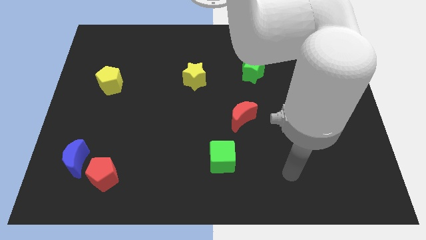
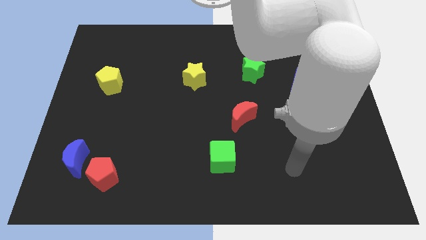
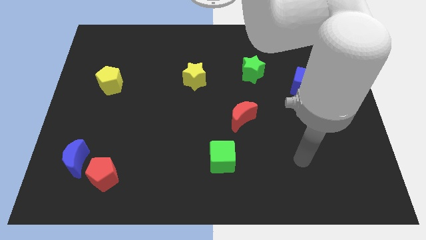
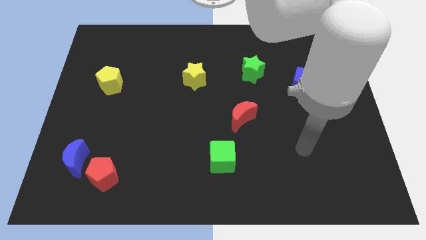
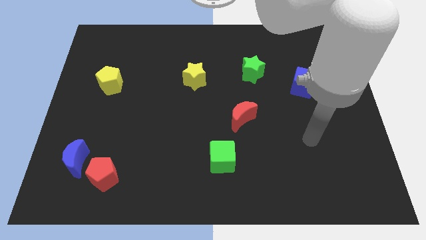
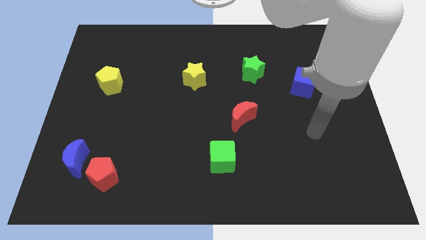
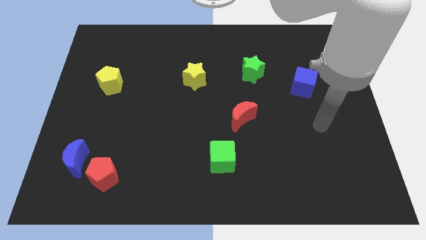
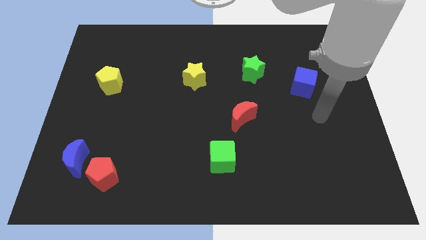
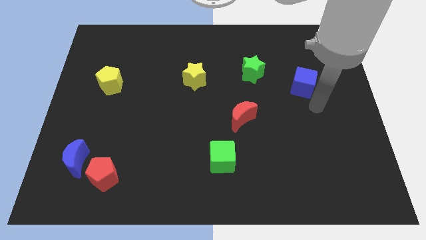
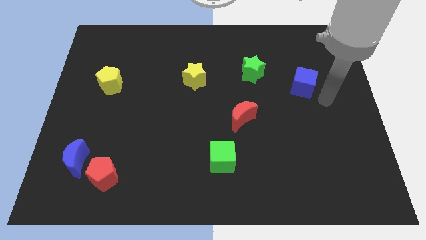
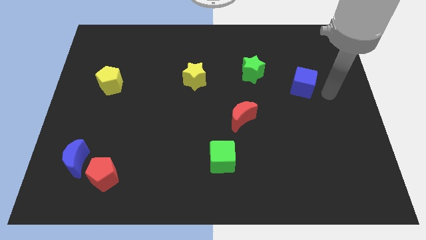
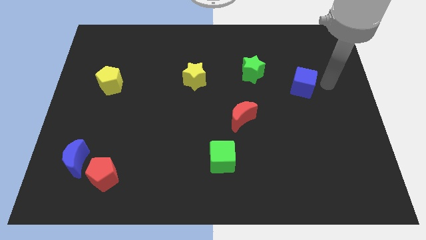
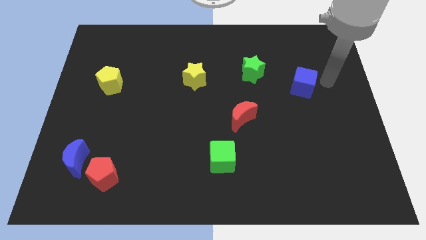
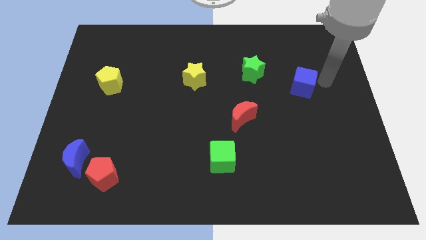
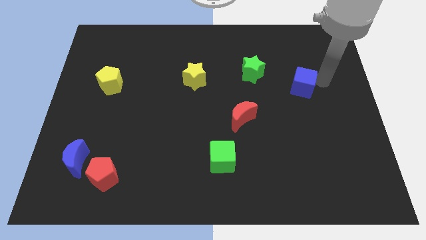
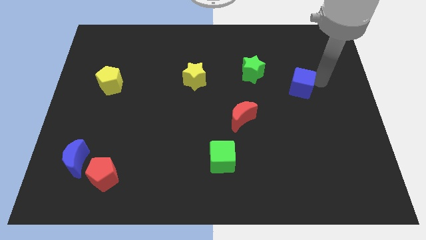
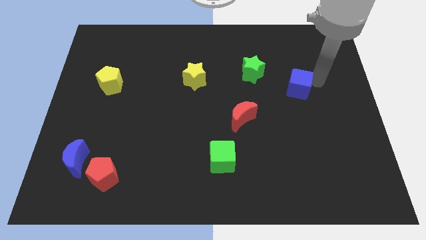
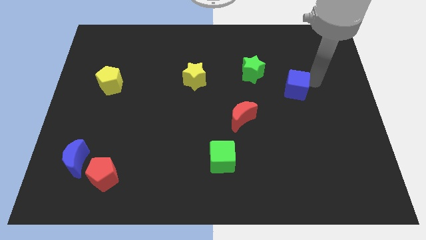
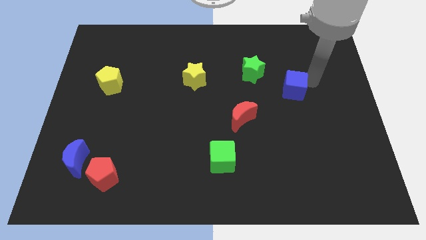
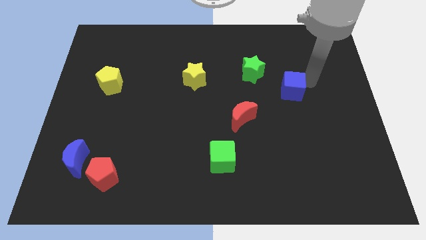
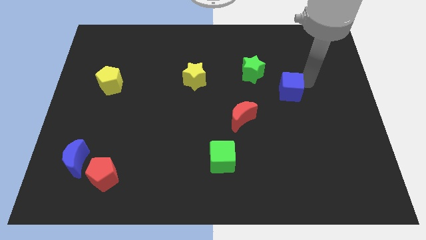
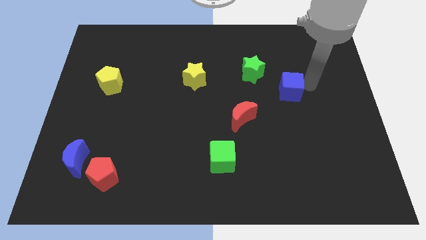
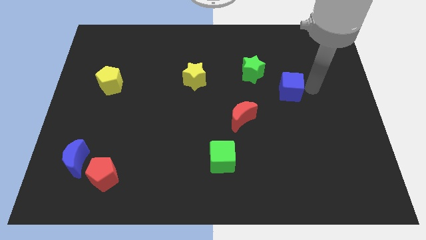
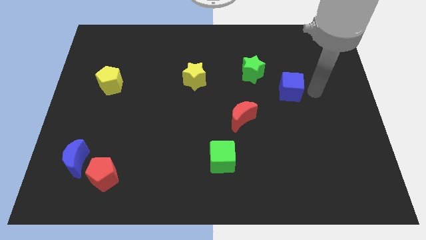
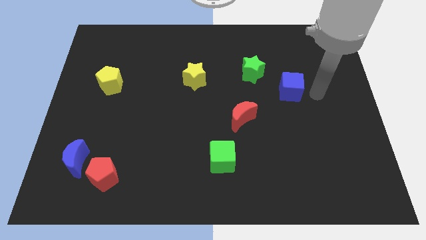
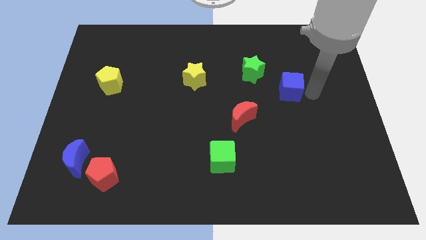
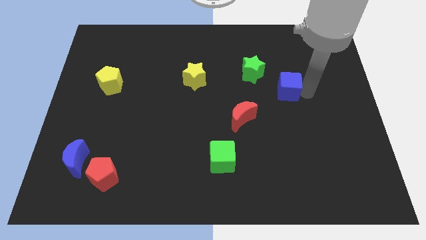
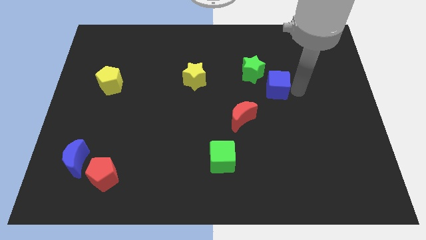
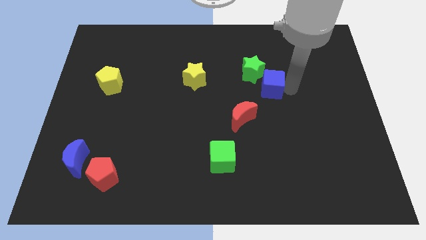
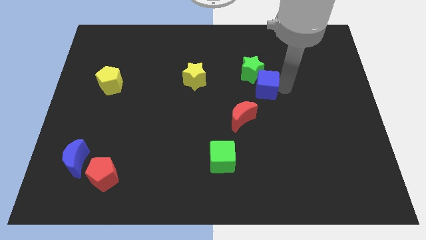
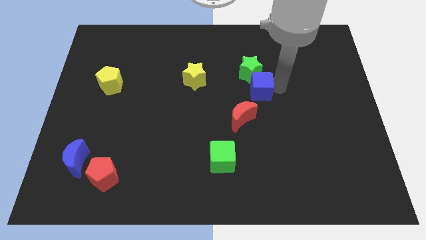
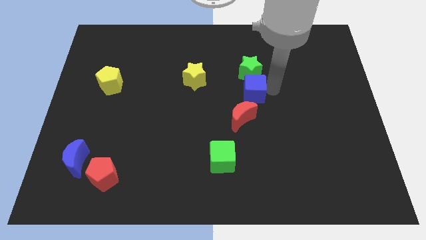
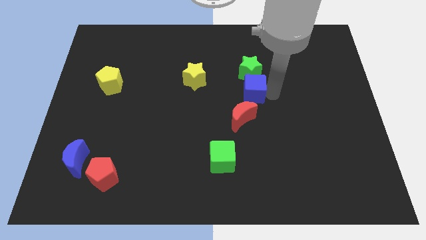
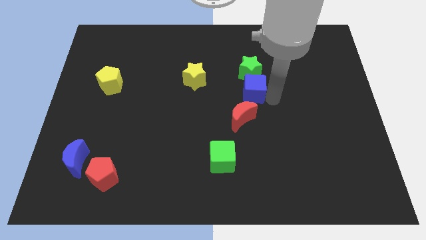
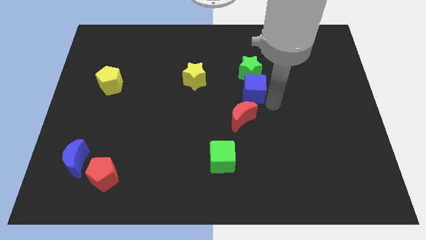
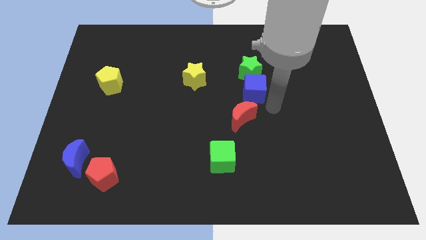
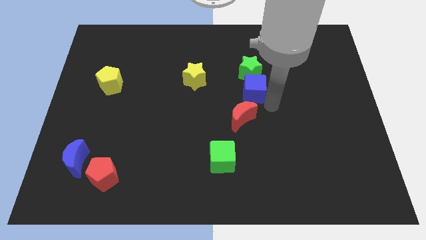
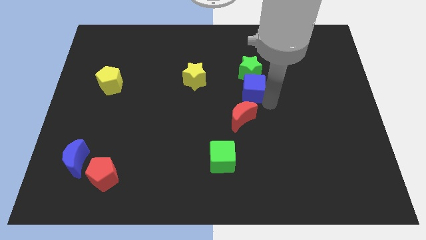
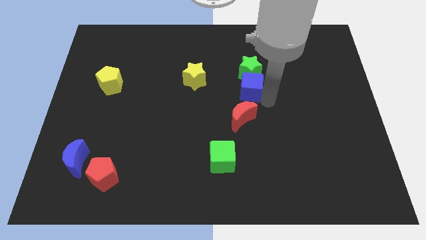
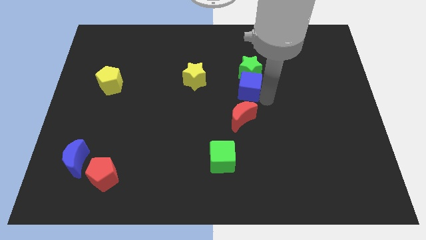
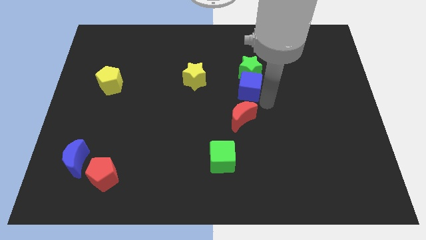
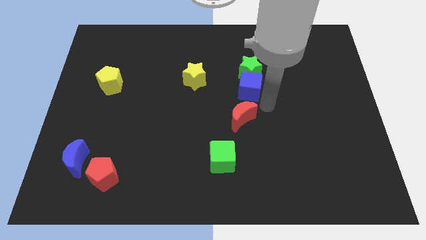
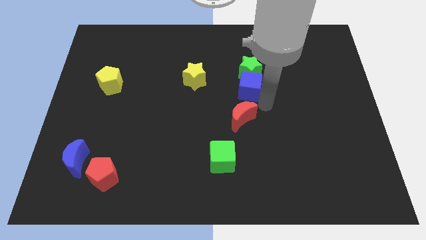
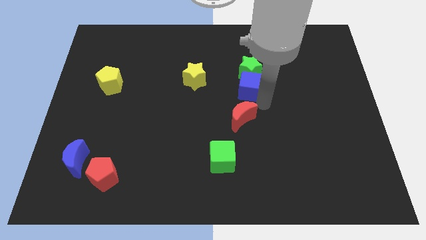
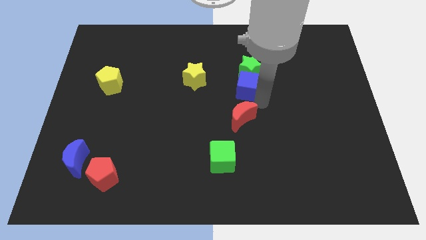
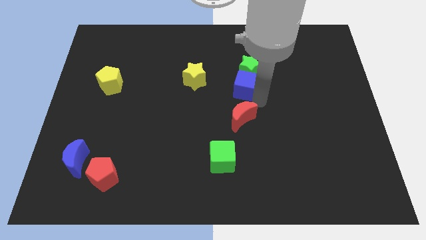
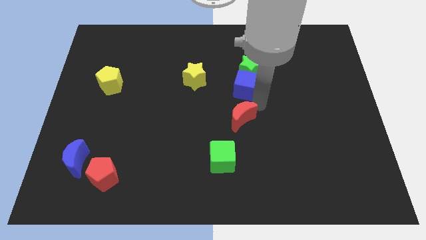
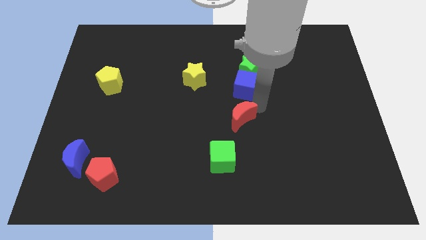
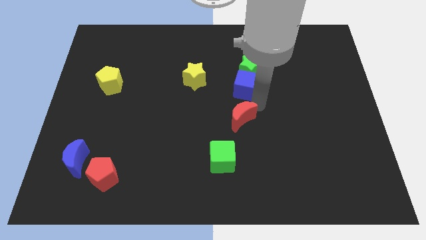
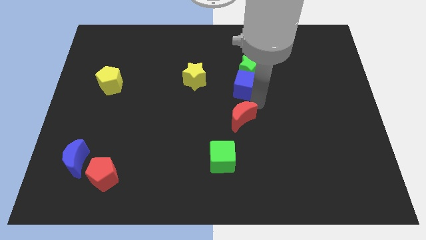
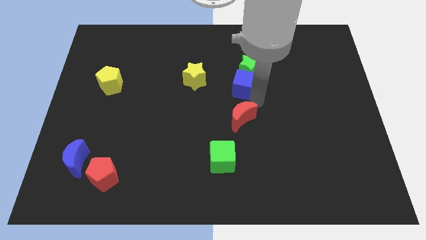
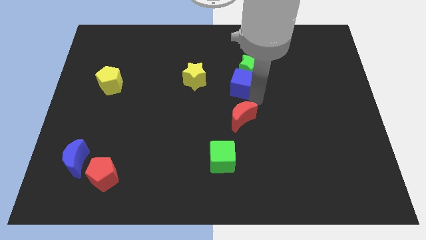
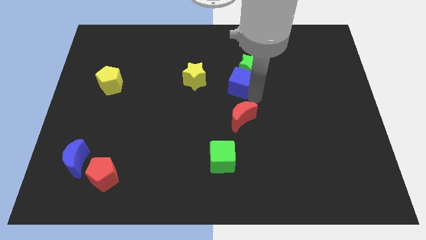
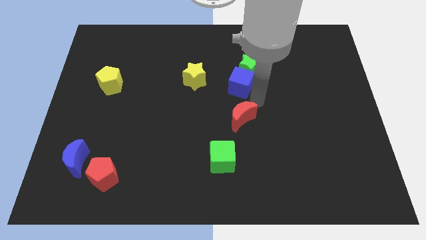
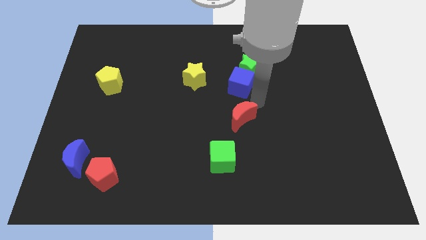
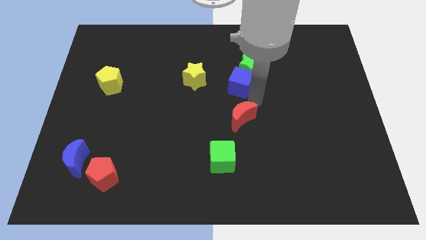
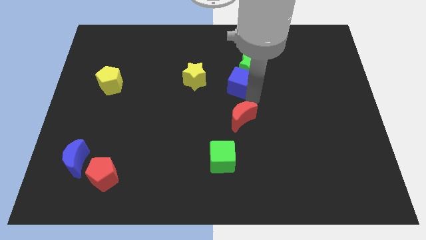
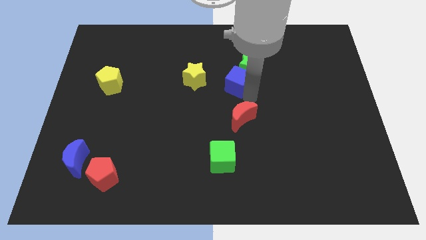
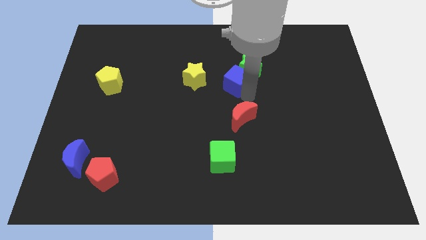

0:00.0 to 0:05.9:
move the blue cube left of the green star
